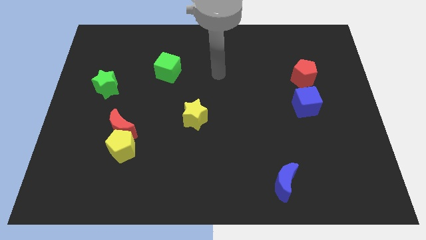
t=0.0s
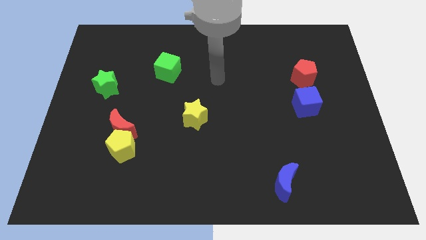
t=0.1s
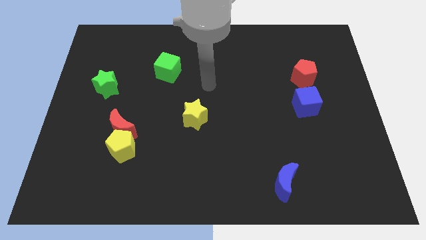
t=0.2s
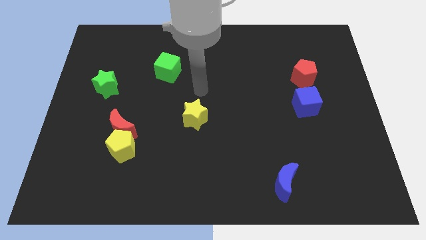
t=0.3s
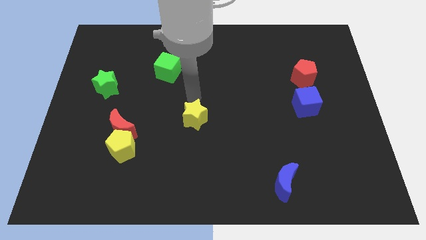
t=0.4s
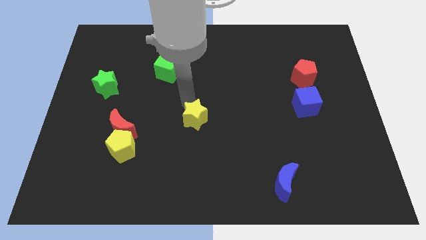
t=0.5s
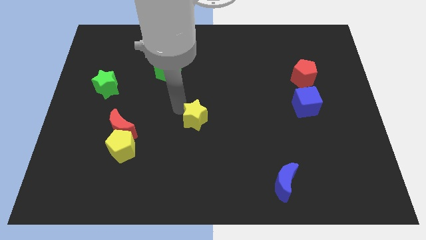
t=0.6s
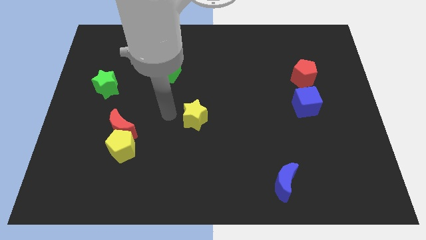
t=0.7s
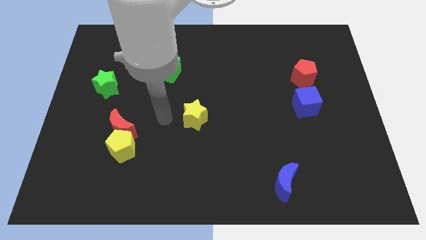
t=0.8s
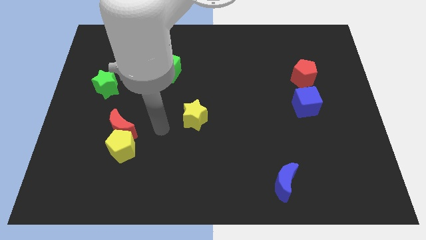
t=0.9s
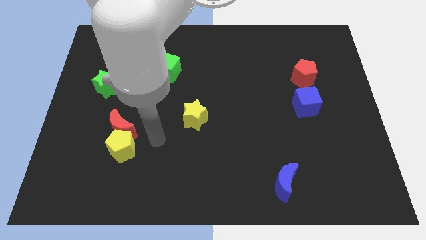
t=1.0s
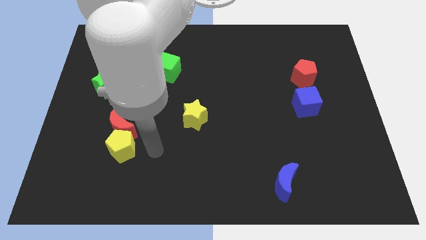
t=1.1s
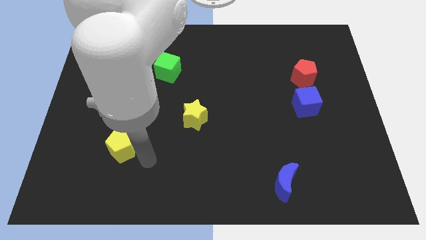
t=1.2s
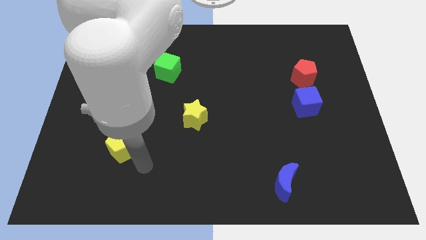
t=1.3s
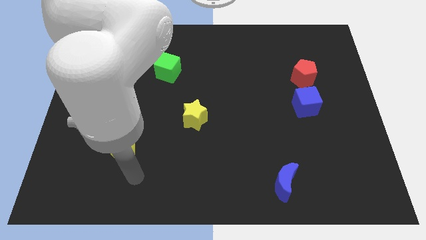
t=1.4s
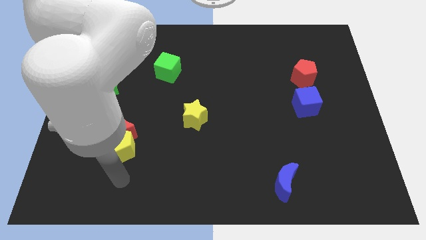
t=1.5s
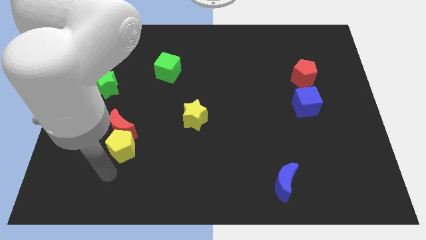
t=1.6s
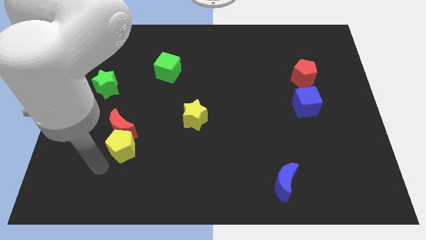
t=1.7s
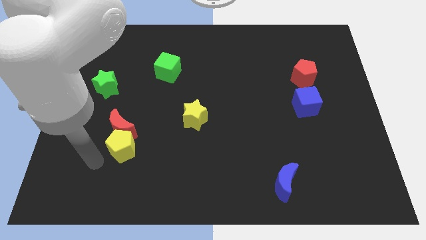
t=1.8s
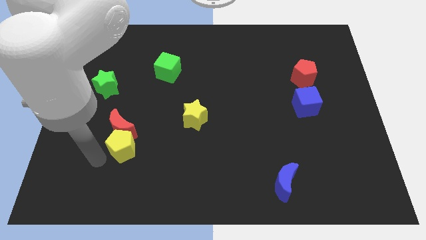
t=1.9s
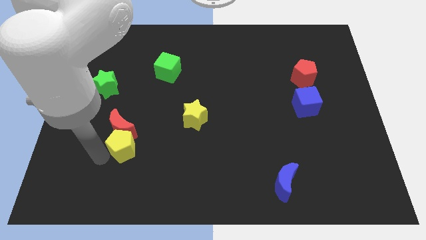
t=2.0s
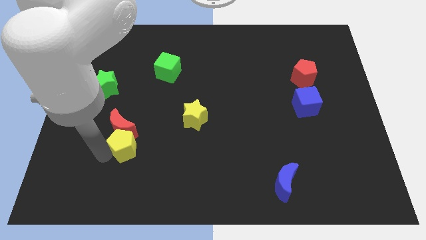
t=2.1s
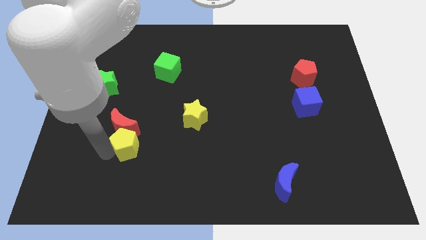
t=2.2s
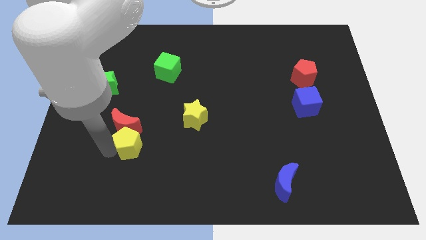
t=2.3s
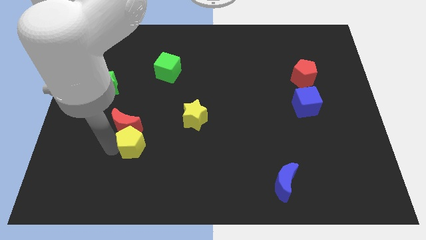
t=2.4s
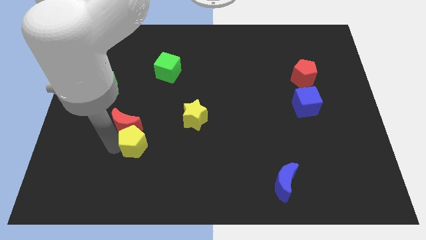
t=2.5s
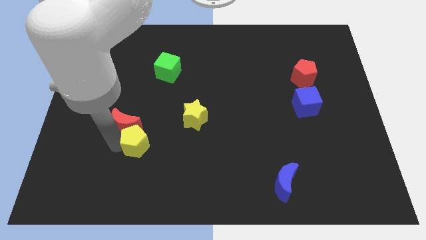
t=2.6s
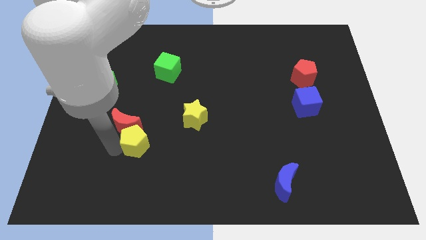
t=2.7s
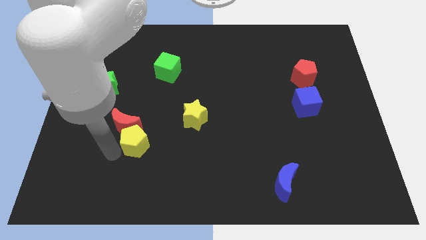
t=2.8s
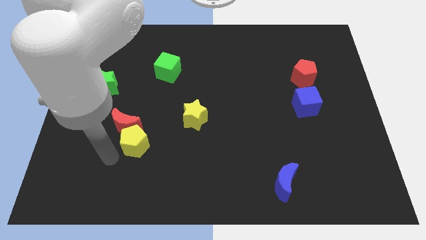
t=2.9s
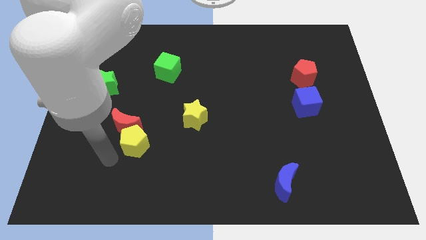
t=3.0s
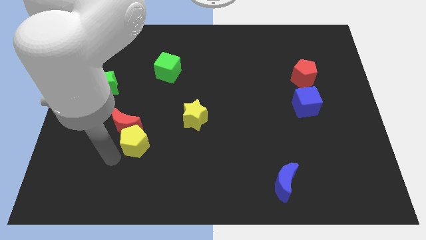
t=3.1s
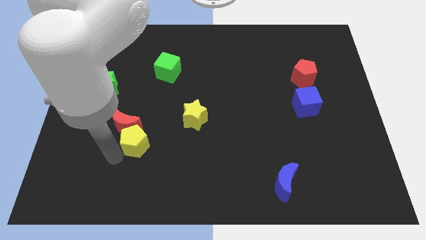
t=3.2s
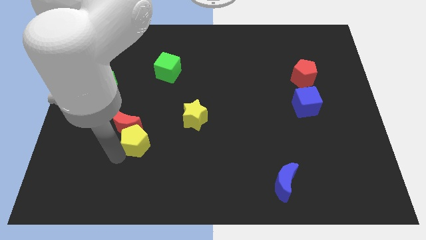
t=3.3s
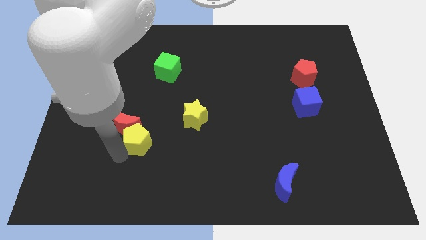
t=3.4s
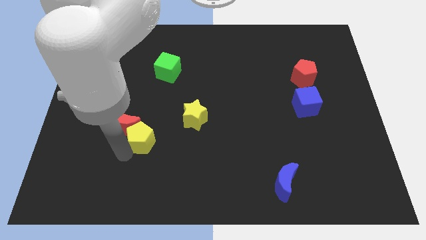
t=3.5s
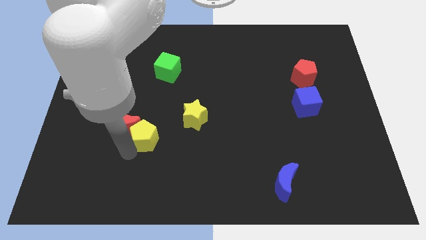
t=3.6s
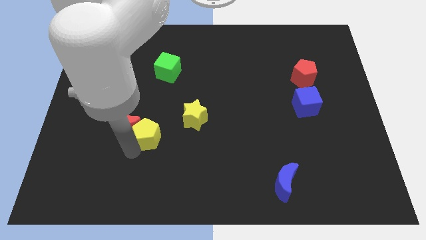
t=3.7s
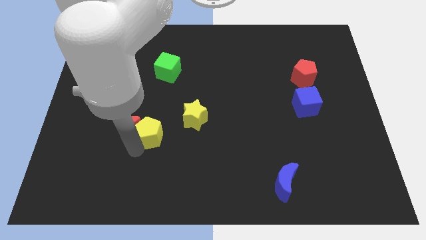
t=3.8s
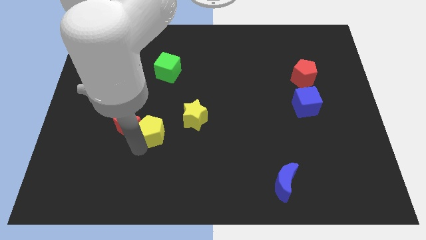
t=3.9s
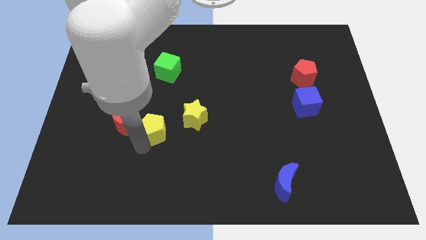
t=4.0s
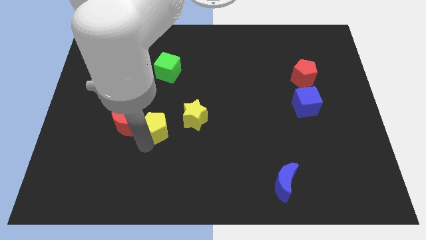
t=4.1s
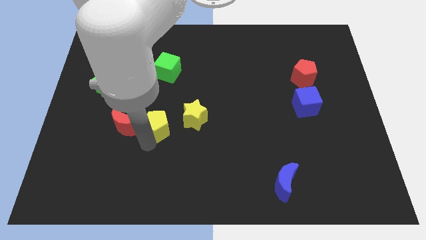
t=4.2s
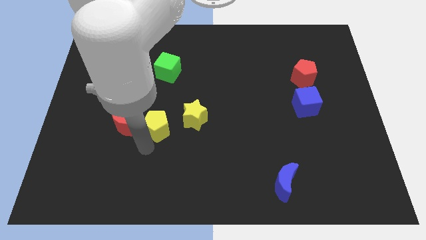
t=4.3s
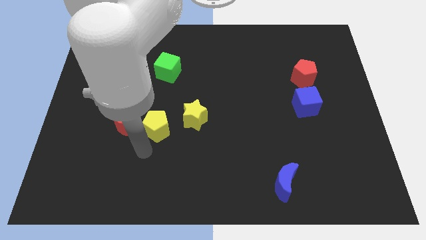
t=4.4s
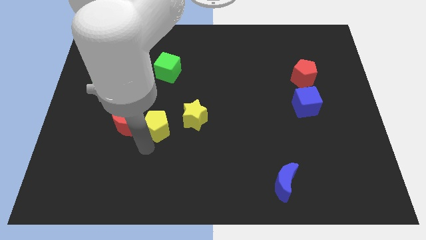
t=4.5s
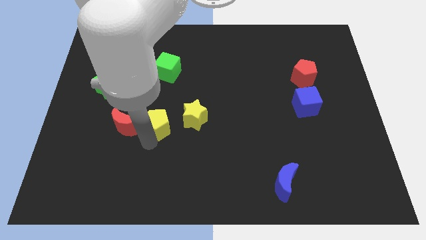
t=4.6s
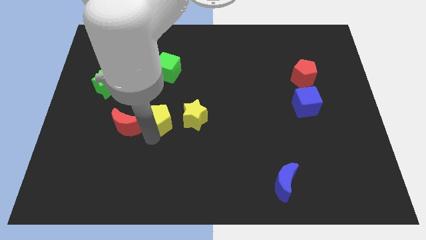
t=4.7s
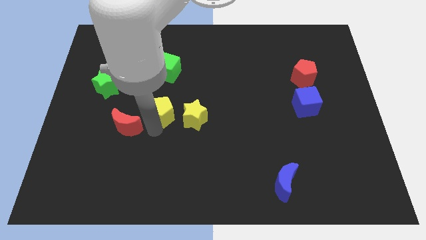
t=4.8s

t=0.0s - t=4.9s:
slide the yellow pentagon to the center

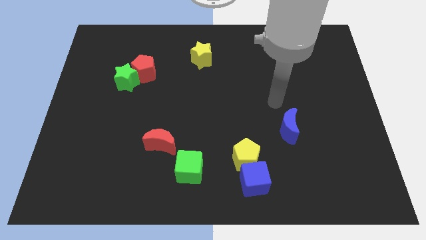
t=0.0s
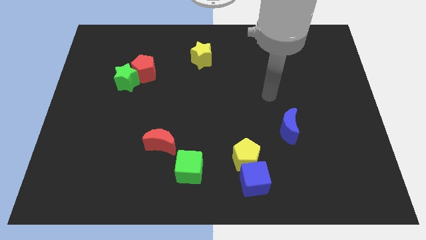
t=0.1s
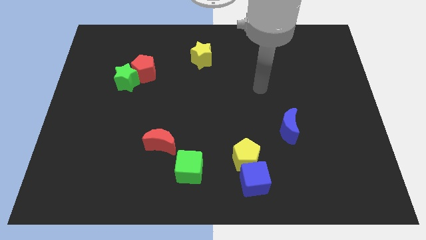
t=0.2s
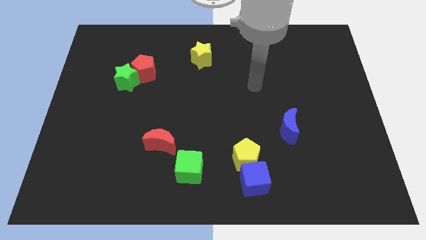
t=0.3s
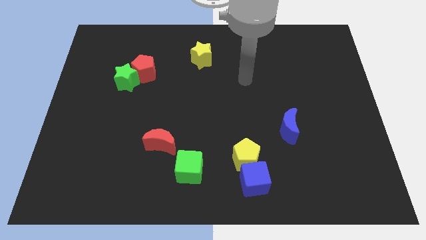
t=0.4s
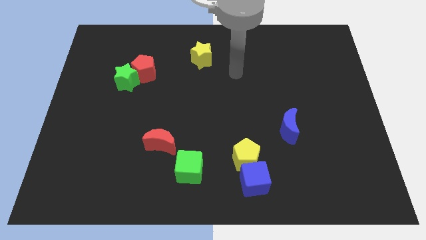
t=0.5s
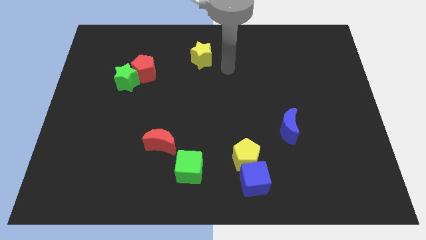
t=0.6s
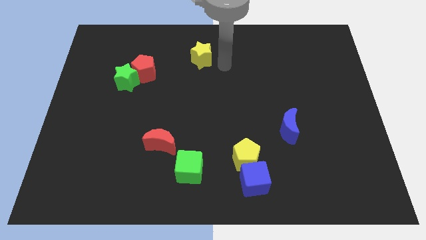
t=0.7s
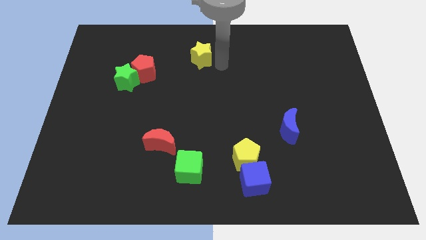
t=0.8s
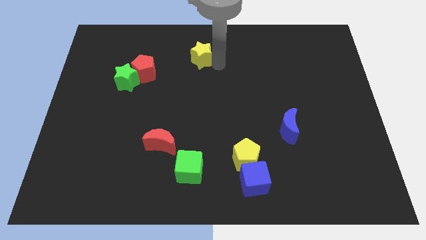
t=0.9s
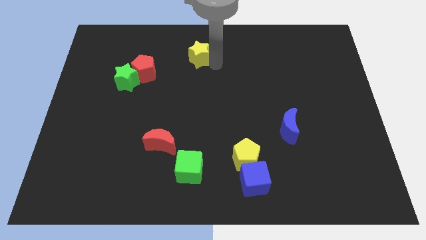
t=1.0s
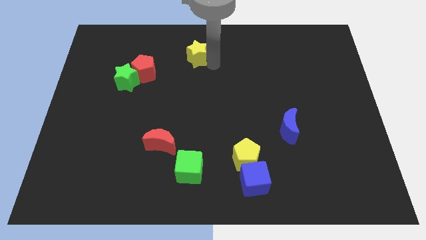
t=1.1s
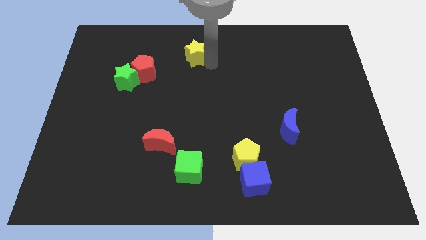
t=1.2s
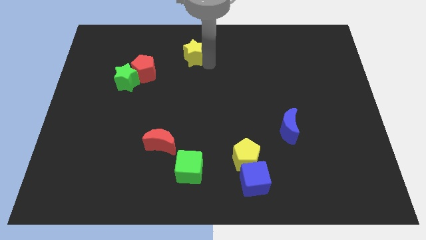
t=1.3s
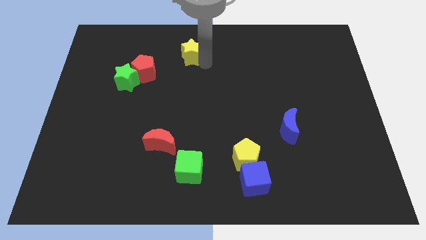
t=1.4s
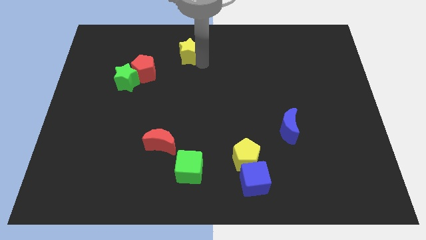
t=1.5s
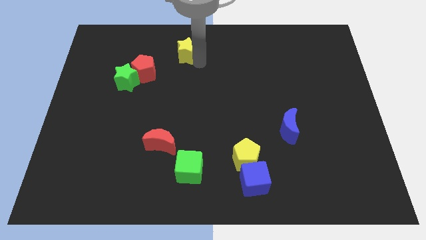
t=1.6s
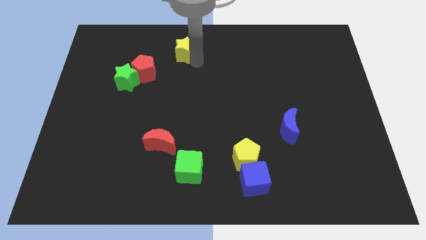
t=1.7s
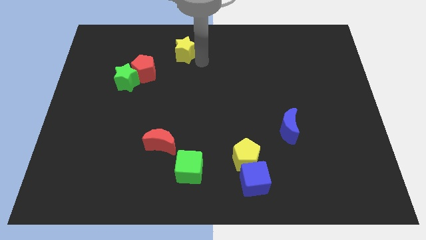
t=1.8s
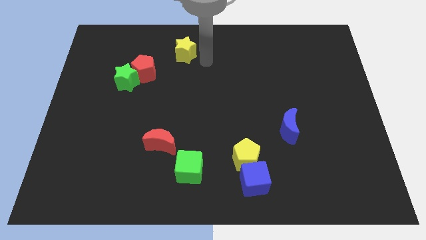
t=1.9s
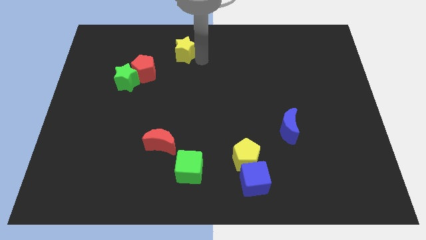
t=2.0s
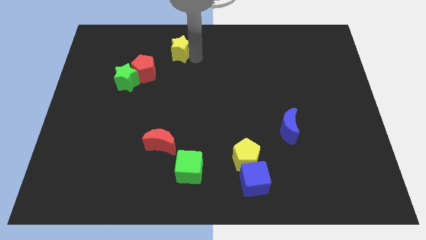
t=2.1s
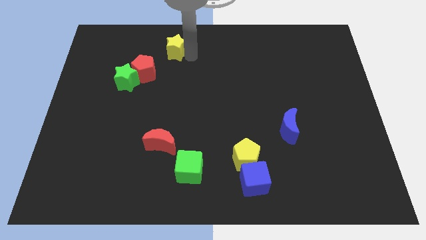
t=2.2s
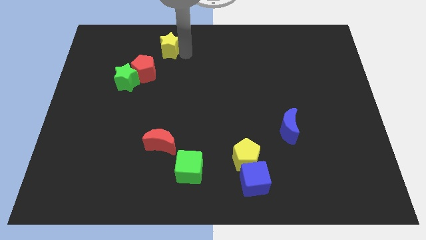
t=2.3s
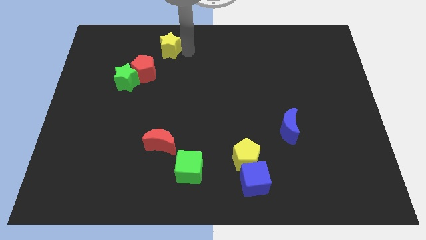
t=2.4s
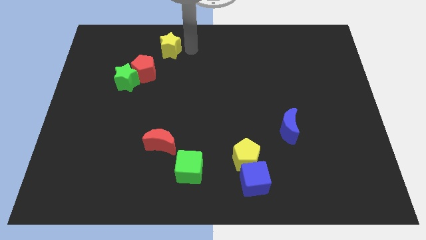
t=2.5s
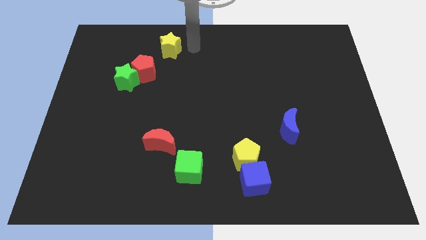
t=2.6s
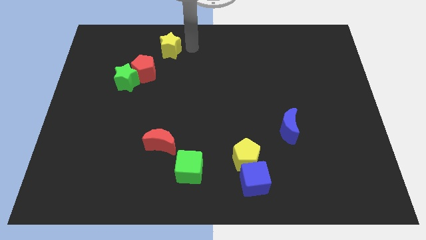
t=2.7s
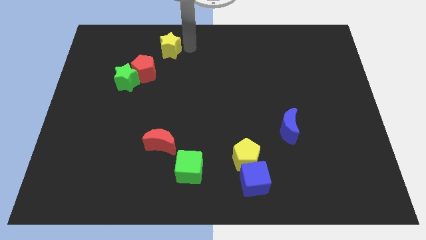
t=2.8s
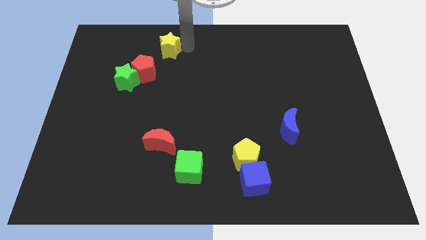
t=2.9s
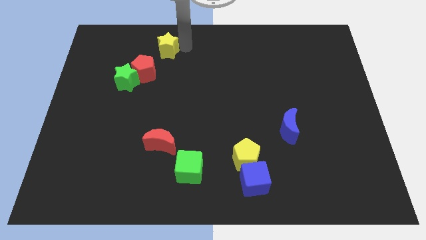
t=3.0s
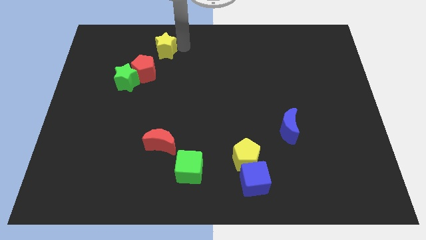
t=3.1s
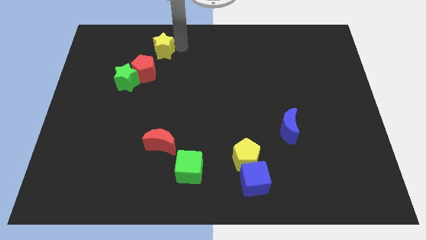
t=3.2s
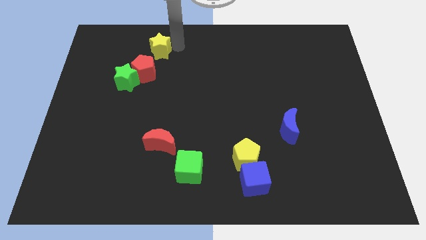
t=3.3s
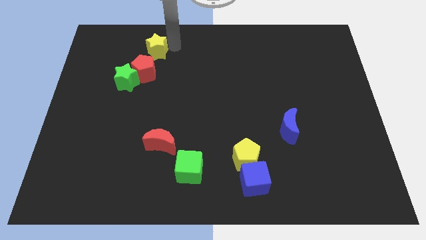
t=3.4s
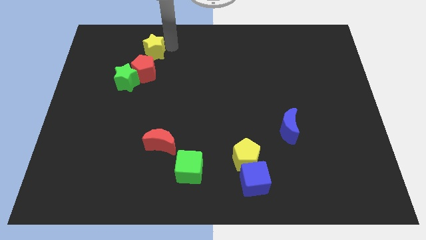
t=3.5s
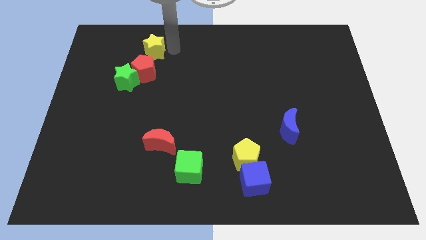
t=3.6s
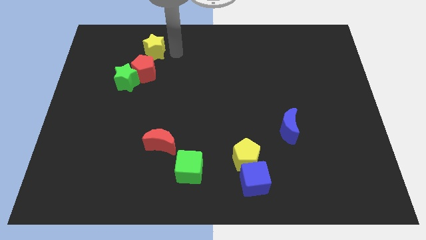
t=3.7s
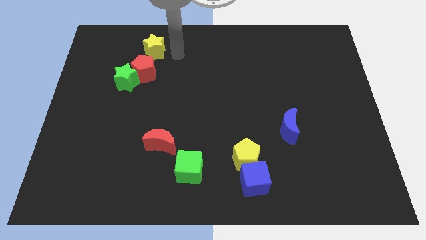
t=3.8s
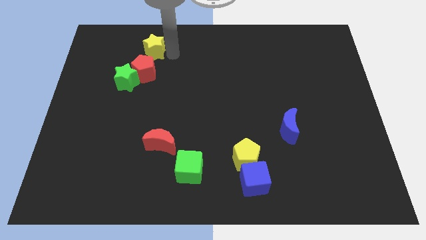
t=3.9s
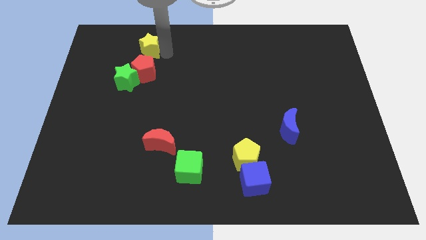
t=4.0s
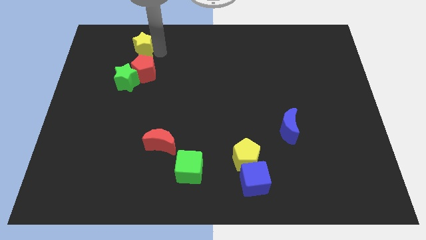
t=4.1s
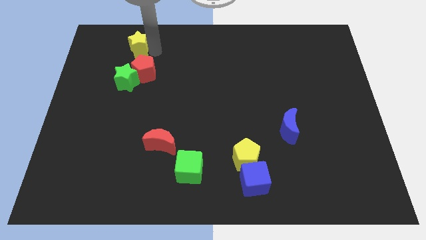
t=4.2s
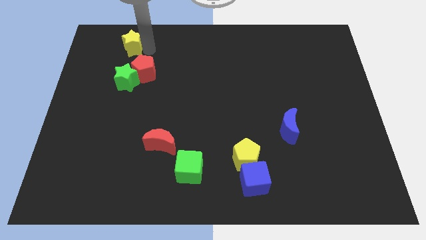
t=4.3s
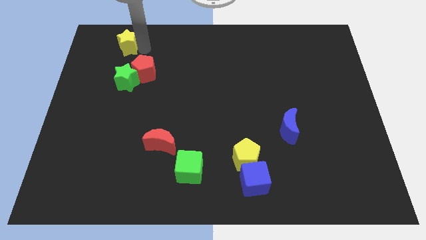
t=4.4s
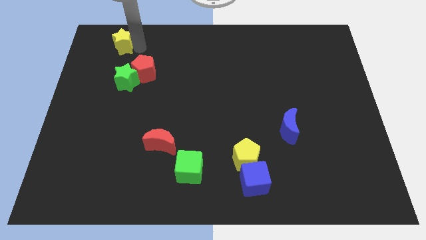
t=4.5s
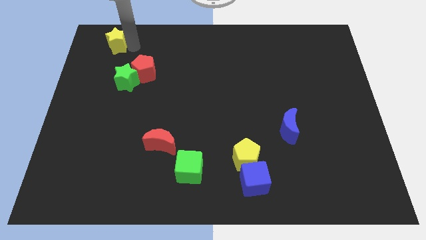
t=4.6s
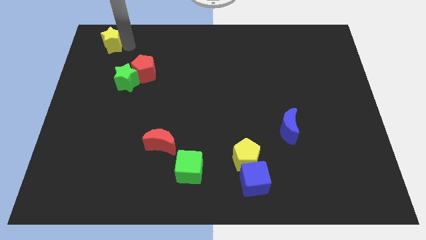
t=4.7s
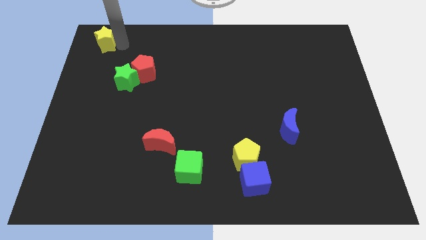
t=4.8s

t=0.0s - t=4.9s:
slide the yellow star to the upper left corner
